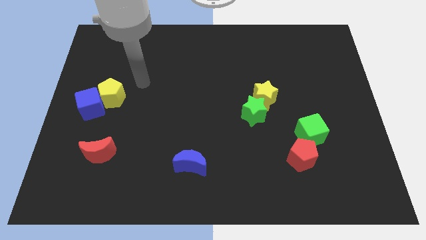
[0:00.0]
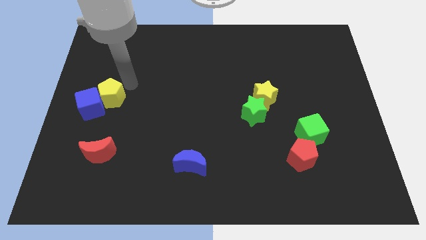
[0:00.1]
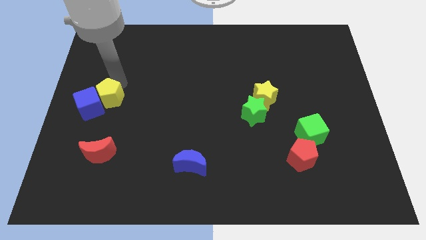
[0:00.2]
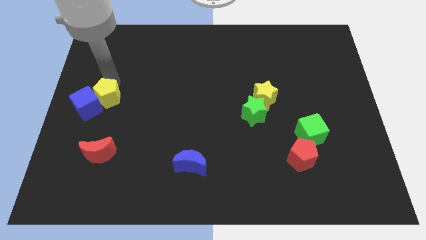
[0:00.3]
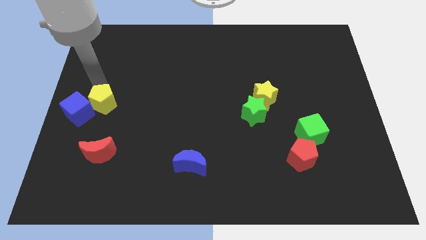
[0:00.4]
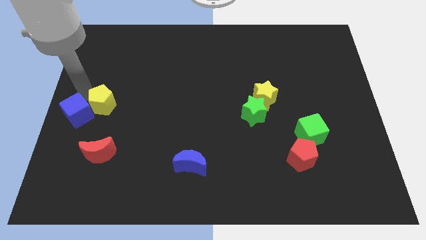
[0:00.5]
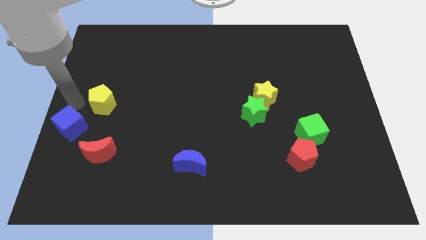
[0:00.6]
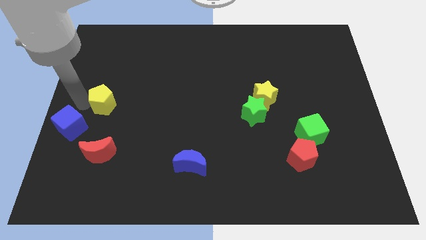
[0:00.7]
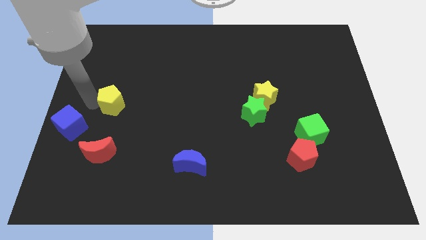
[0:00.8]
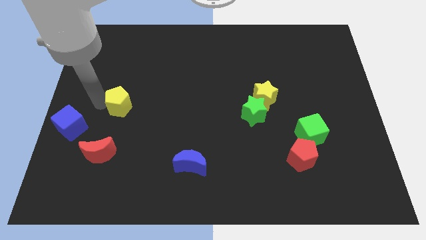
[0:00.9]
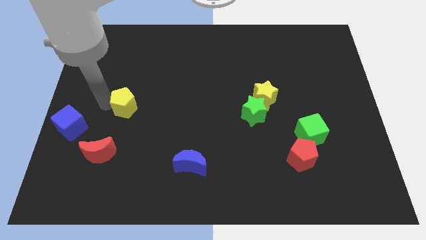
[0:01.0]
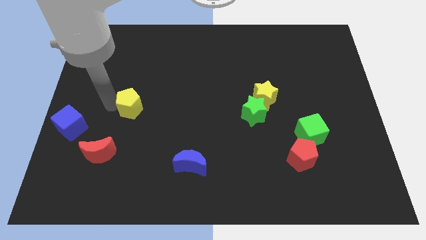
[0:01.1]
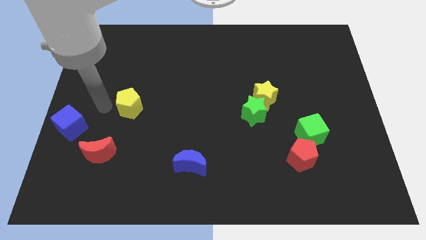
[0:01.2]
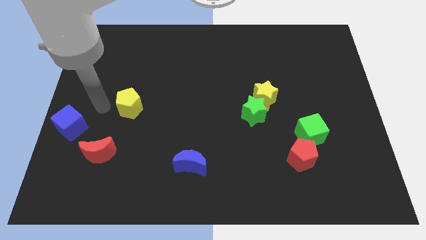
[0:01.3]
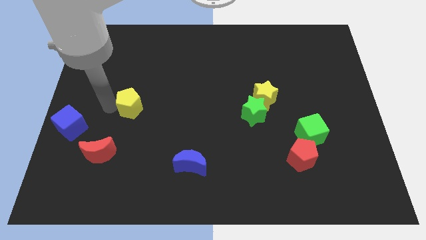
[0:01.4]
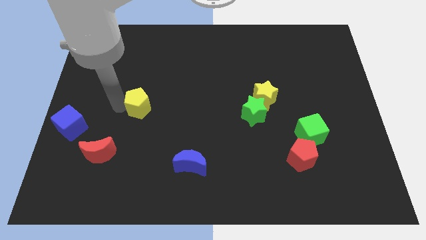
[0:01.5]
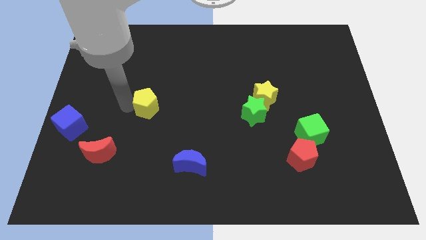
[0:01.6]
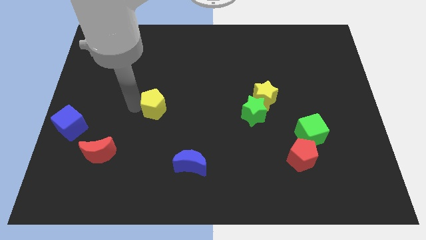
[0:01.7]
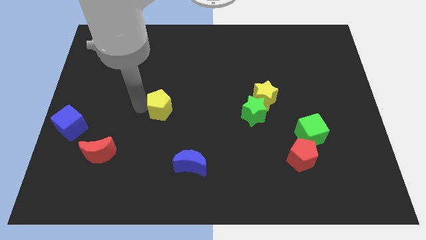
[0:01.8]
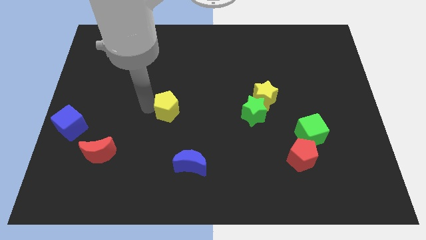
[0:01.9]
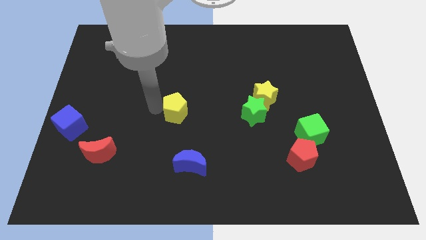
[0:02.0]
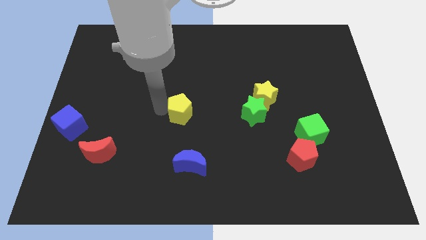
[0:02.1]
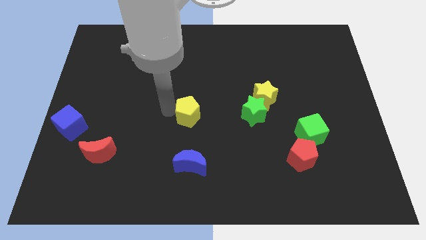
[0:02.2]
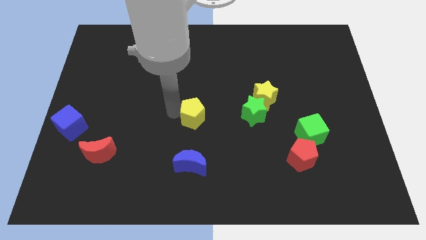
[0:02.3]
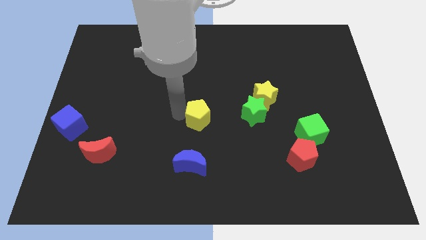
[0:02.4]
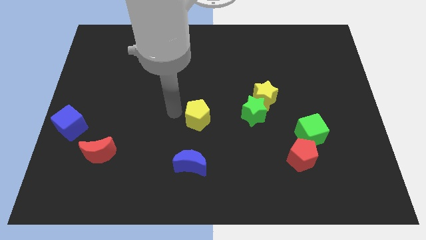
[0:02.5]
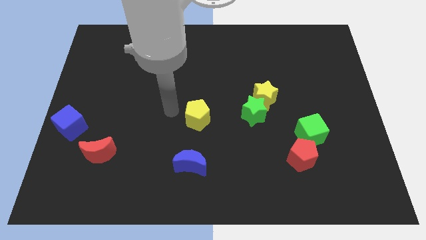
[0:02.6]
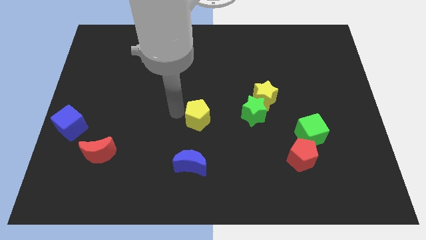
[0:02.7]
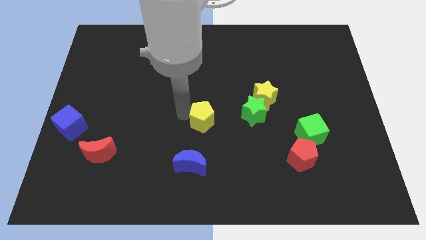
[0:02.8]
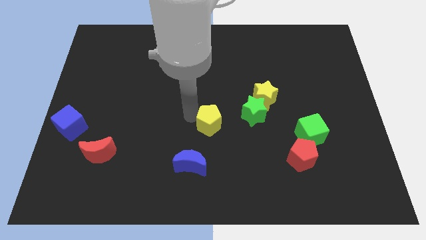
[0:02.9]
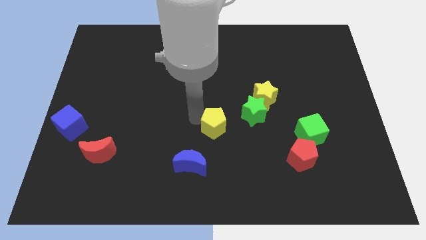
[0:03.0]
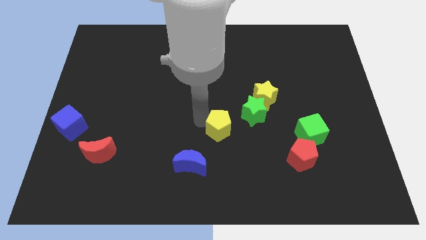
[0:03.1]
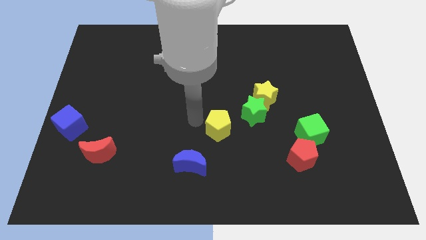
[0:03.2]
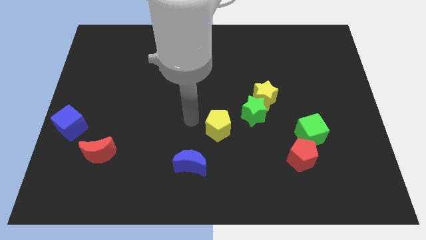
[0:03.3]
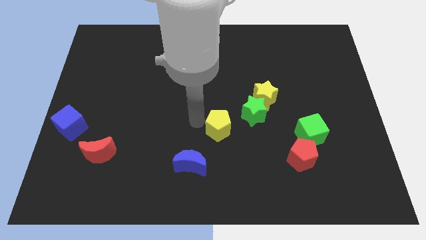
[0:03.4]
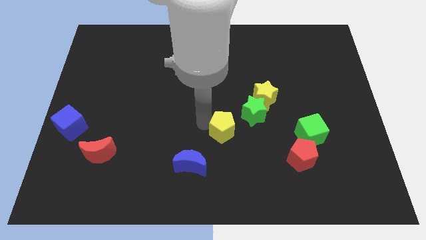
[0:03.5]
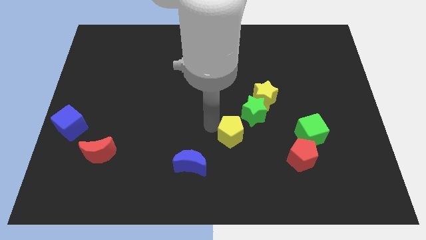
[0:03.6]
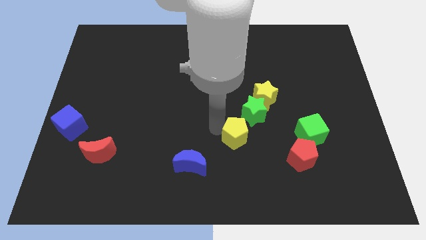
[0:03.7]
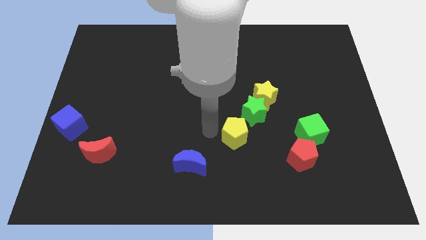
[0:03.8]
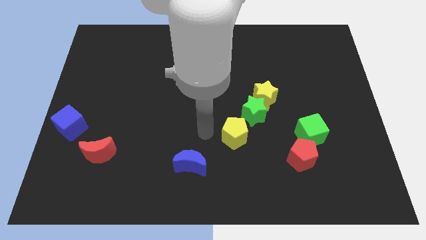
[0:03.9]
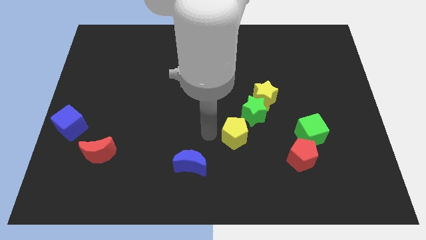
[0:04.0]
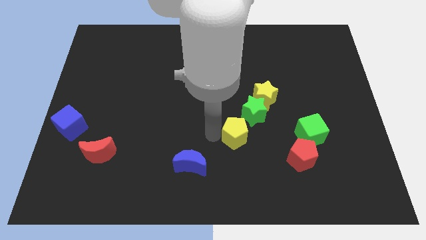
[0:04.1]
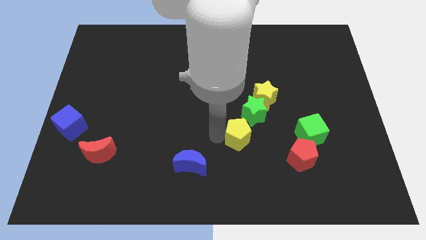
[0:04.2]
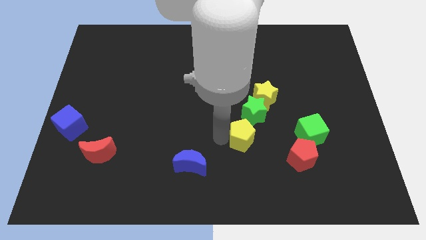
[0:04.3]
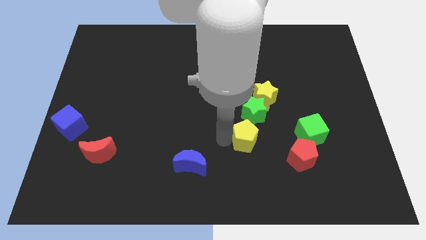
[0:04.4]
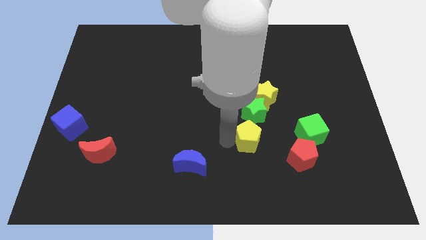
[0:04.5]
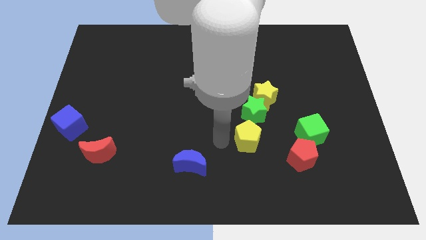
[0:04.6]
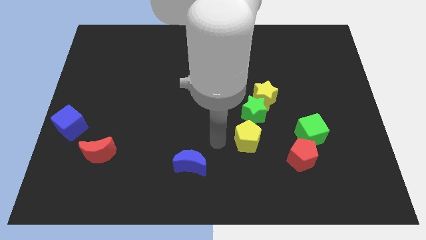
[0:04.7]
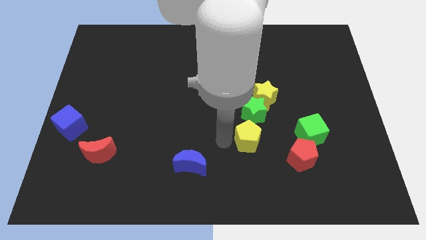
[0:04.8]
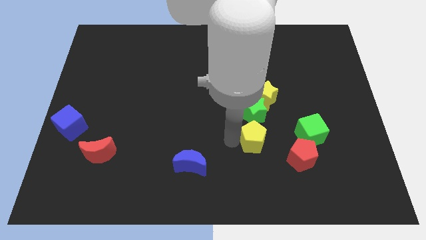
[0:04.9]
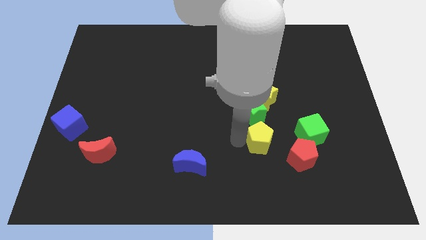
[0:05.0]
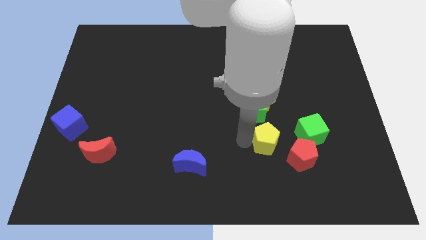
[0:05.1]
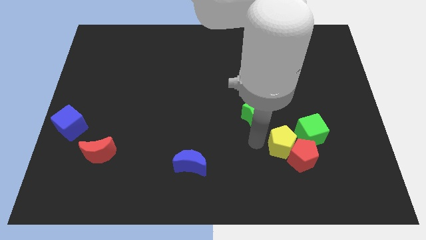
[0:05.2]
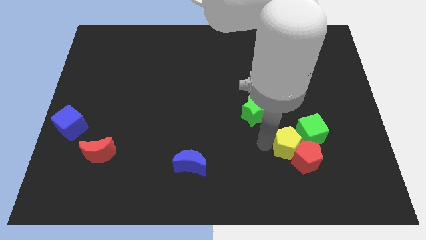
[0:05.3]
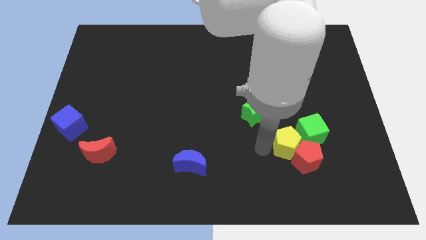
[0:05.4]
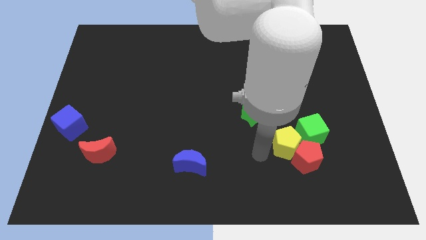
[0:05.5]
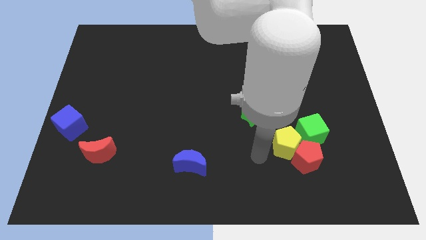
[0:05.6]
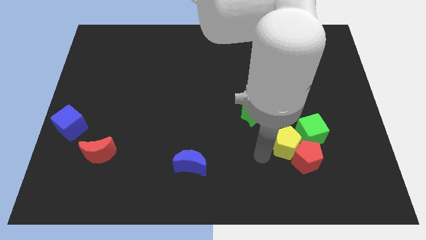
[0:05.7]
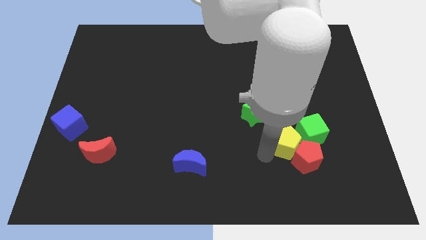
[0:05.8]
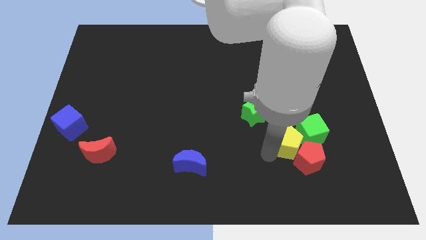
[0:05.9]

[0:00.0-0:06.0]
slide the yellow pentagon next to the green cube

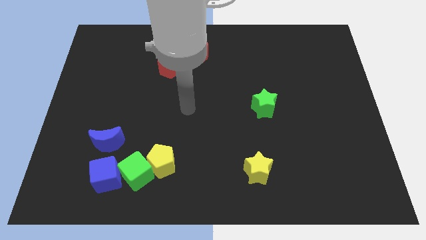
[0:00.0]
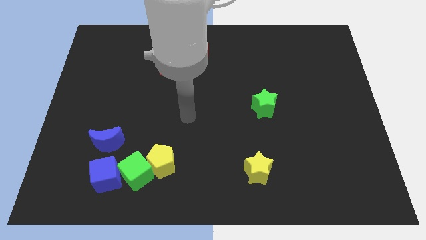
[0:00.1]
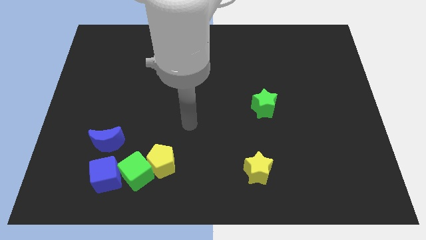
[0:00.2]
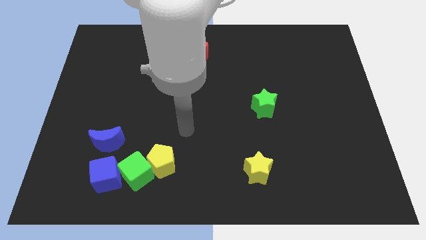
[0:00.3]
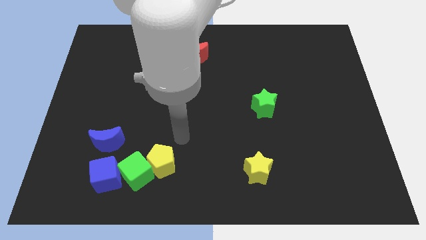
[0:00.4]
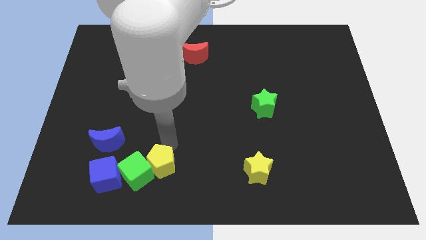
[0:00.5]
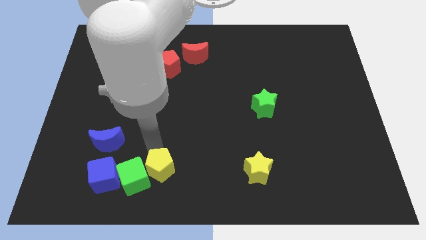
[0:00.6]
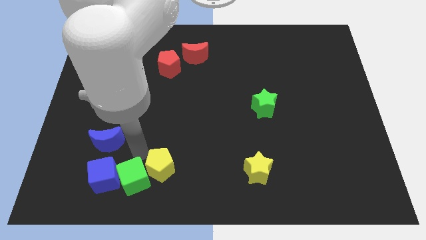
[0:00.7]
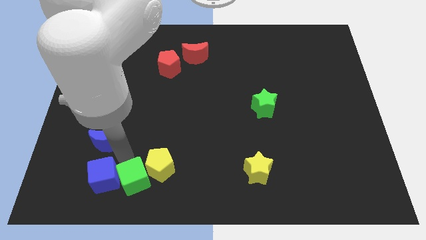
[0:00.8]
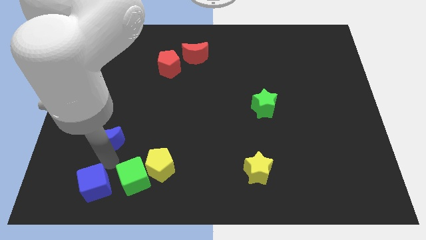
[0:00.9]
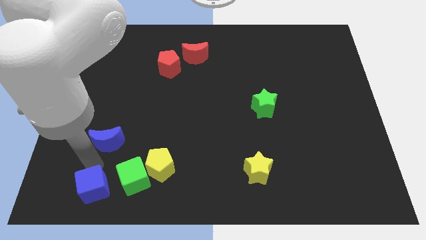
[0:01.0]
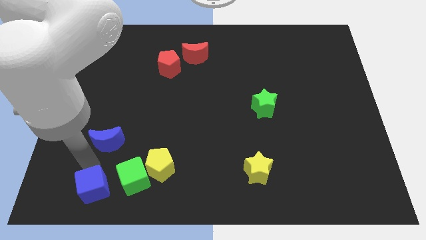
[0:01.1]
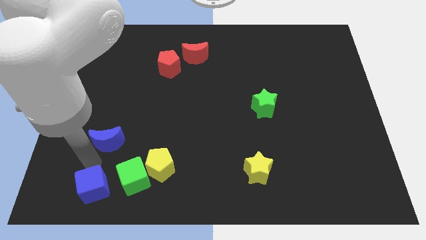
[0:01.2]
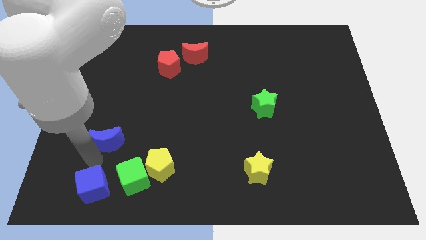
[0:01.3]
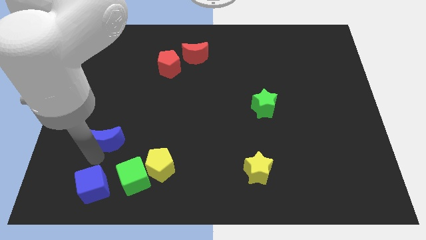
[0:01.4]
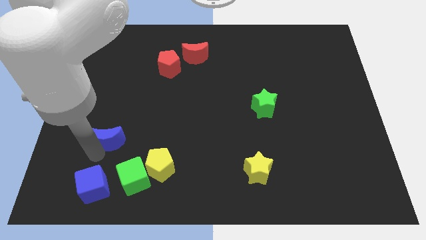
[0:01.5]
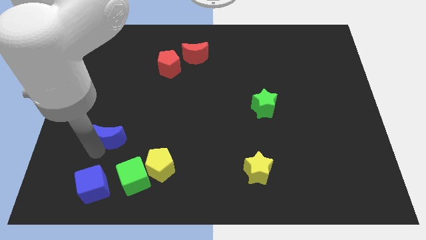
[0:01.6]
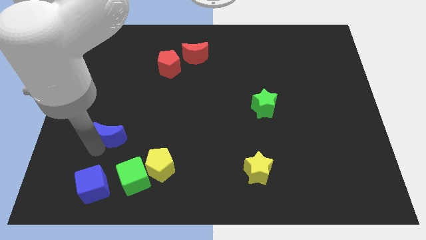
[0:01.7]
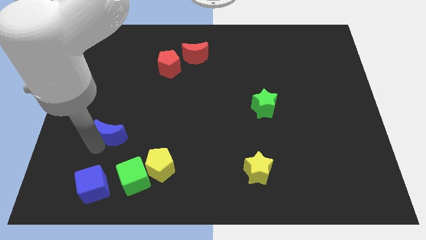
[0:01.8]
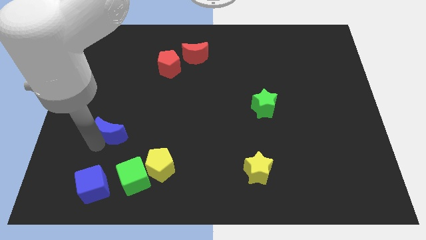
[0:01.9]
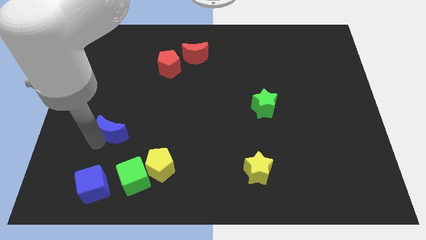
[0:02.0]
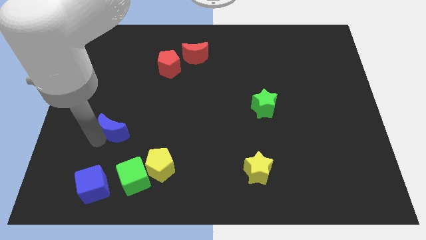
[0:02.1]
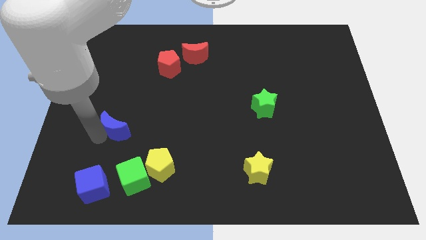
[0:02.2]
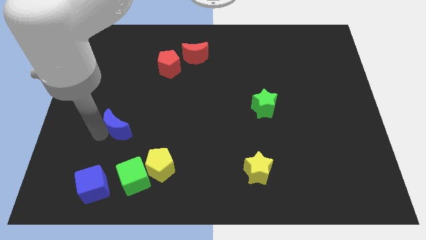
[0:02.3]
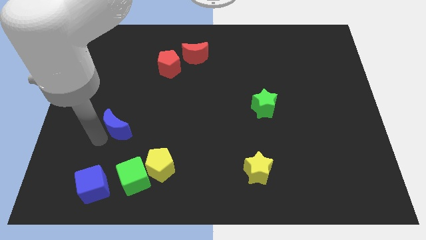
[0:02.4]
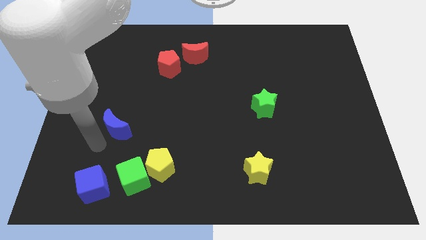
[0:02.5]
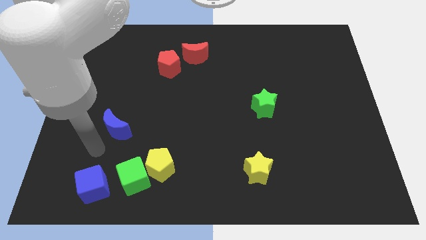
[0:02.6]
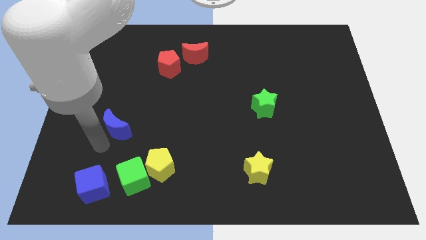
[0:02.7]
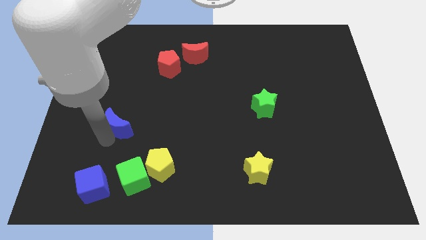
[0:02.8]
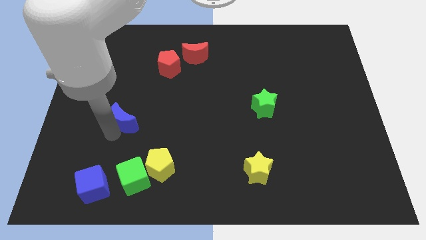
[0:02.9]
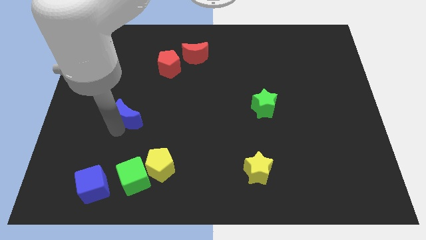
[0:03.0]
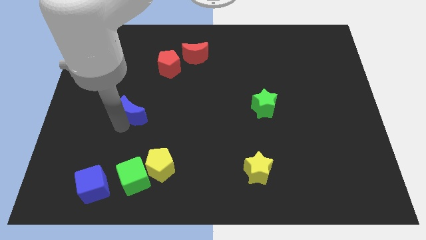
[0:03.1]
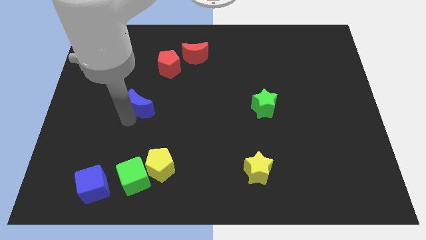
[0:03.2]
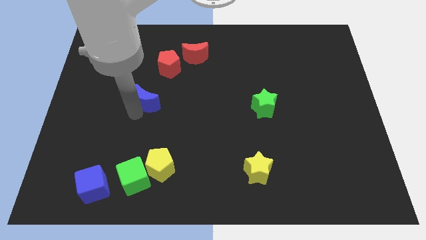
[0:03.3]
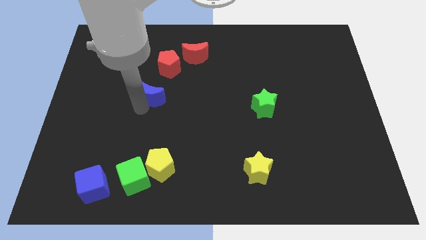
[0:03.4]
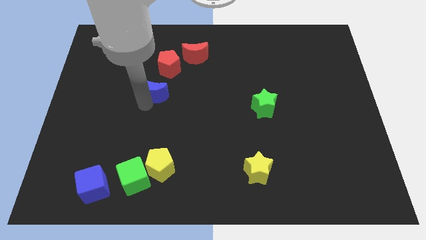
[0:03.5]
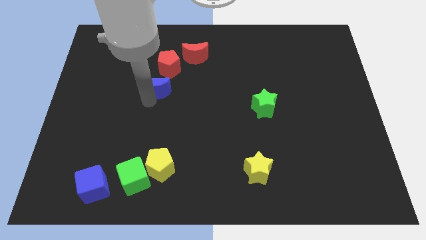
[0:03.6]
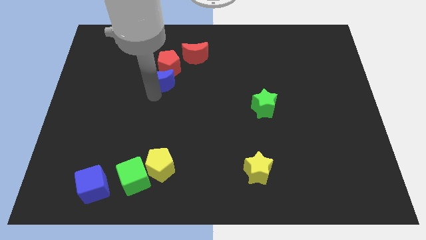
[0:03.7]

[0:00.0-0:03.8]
slide the blue moon close to the red pentagon
